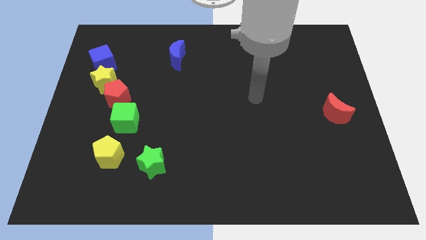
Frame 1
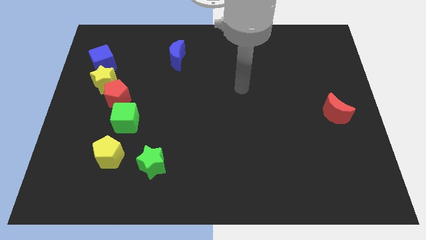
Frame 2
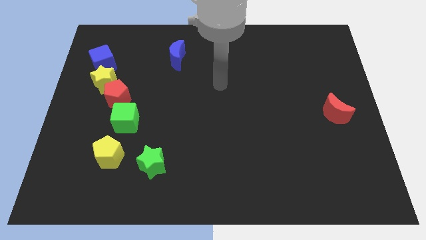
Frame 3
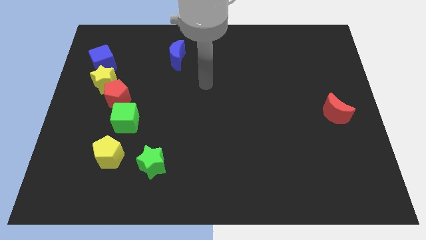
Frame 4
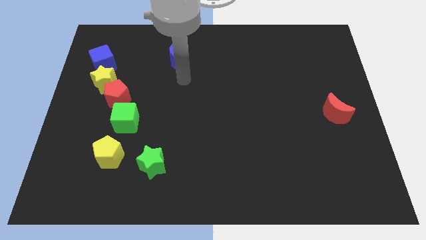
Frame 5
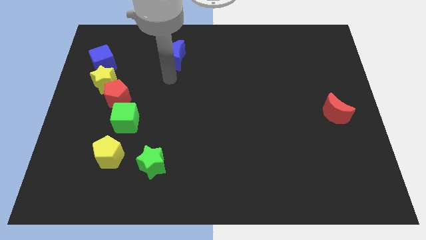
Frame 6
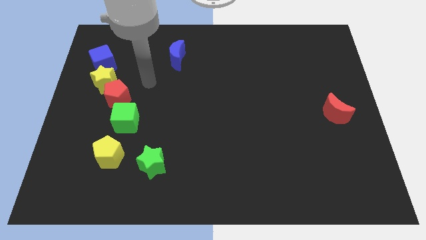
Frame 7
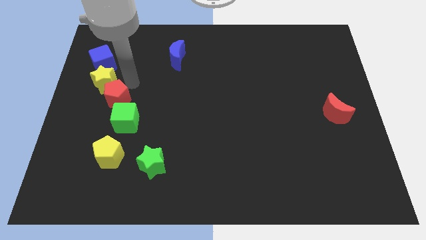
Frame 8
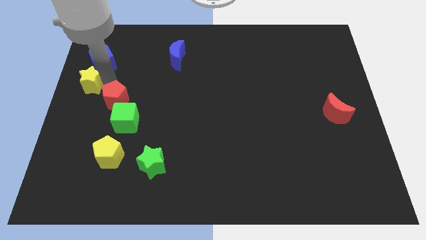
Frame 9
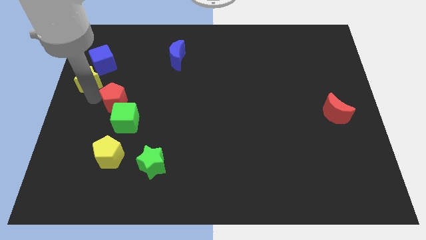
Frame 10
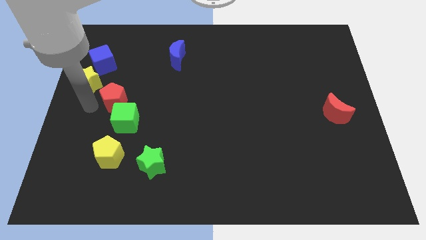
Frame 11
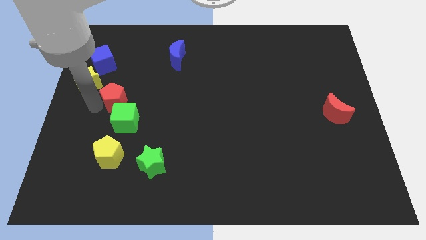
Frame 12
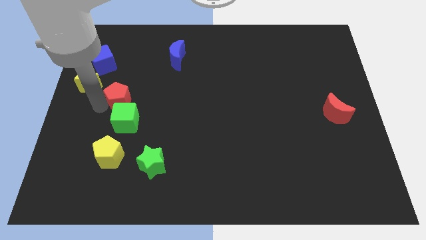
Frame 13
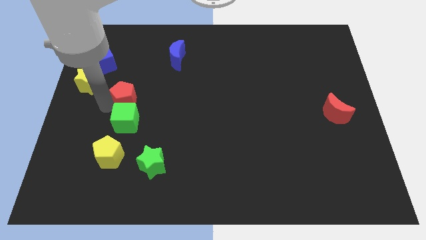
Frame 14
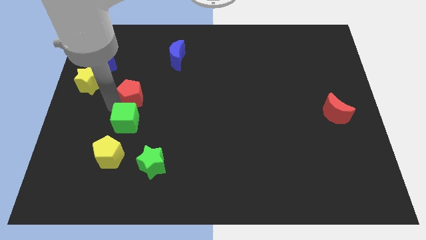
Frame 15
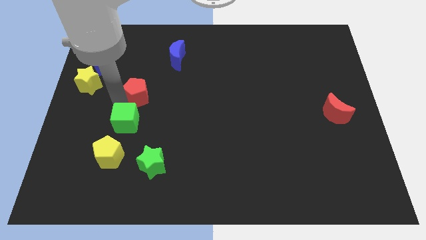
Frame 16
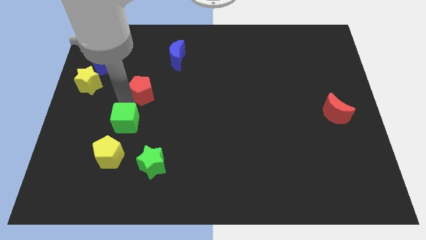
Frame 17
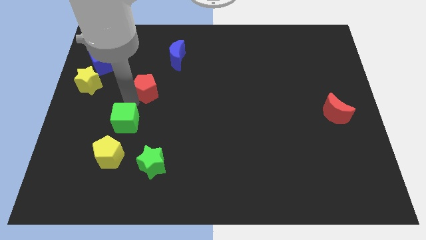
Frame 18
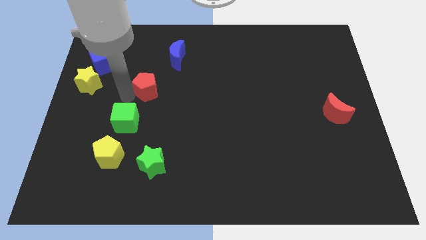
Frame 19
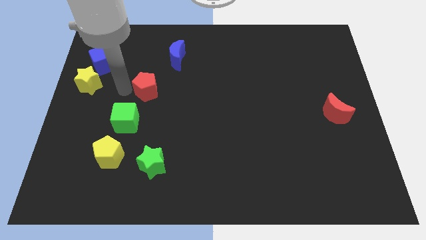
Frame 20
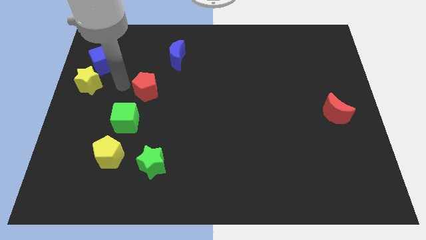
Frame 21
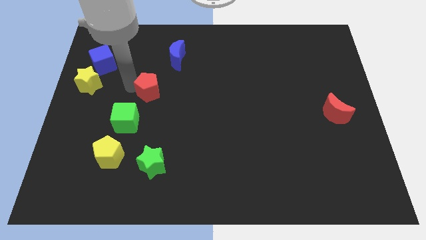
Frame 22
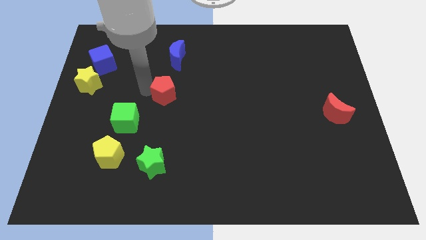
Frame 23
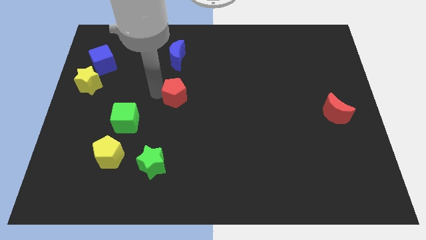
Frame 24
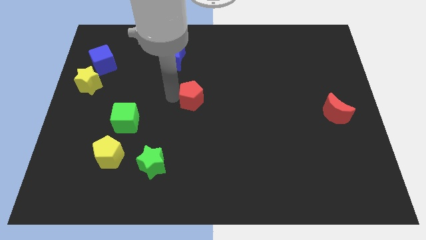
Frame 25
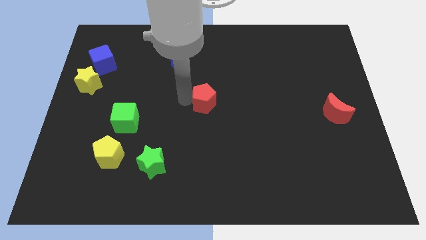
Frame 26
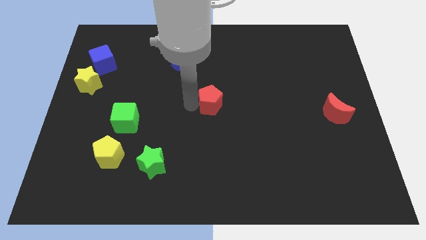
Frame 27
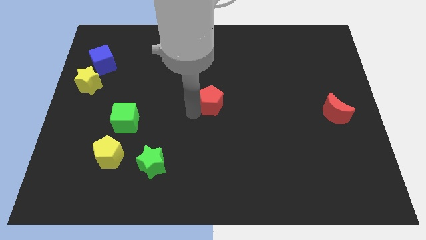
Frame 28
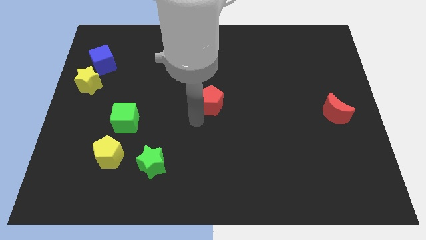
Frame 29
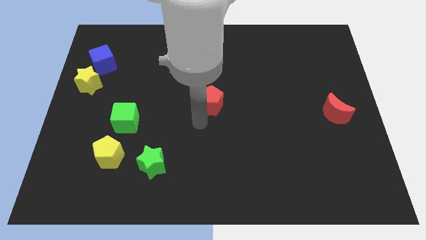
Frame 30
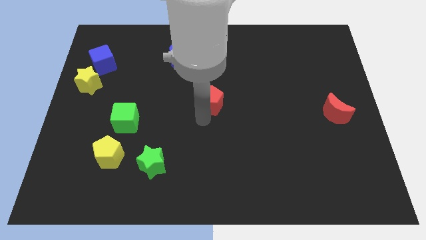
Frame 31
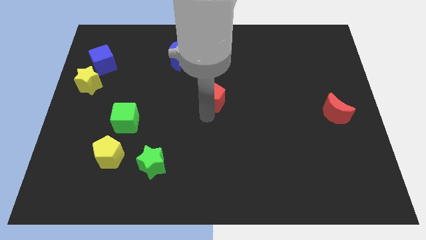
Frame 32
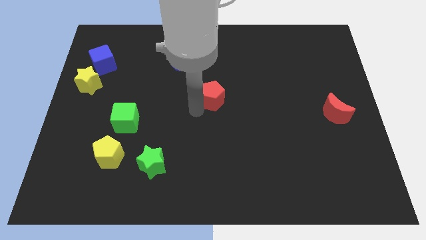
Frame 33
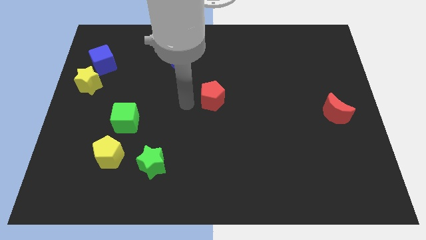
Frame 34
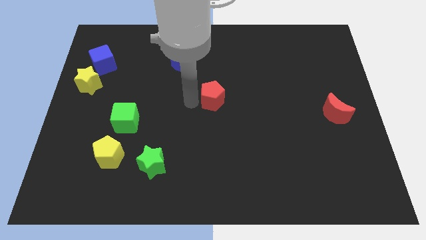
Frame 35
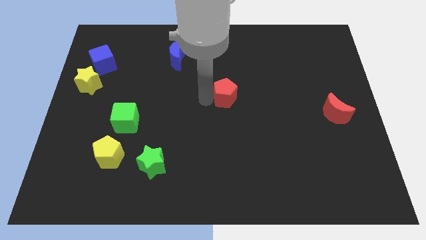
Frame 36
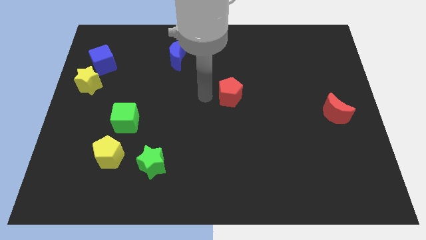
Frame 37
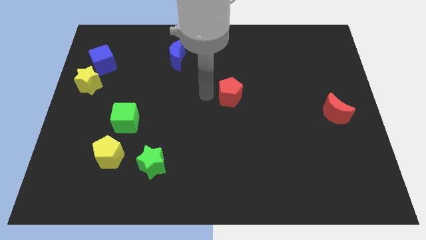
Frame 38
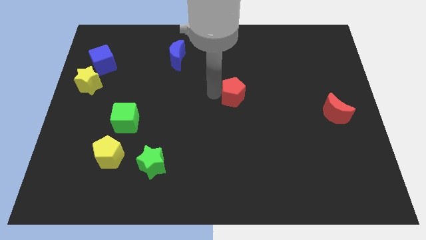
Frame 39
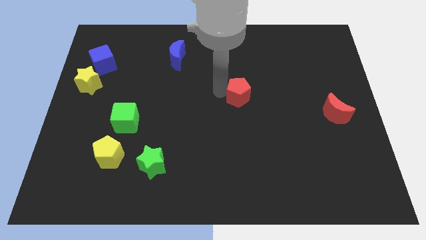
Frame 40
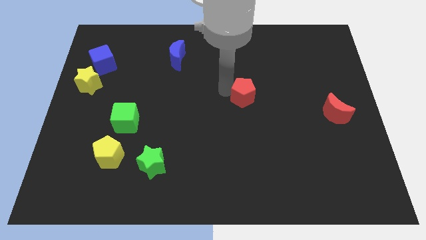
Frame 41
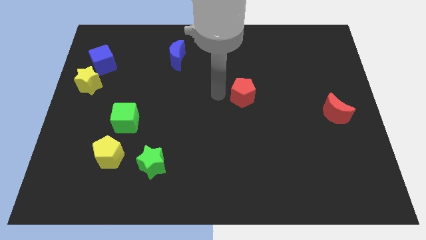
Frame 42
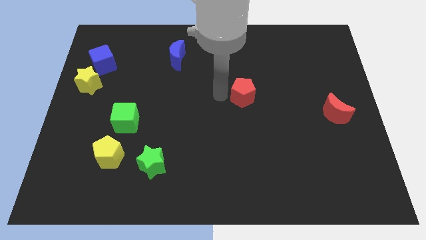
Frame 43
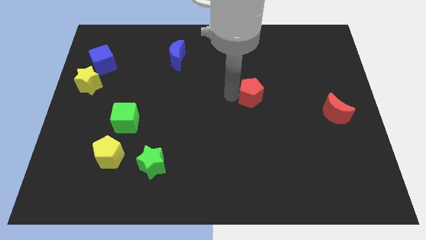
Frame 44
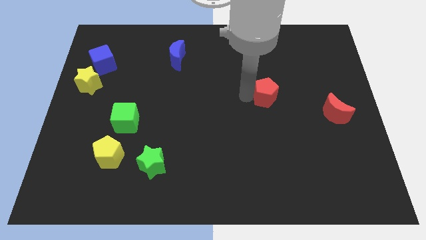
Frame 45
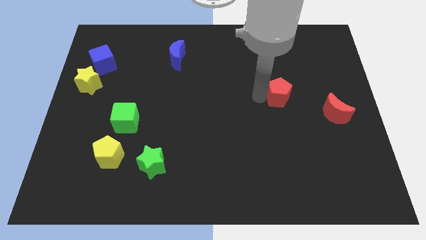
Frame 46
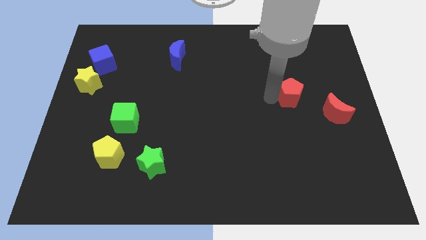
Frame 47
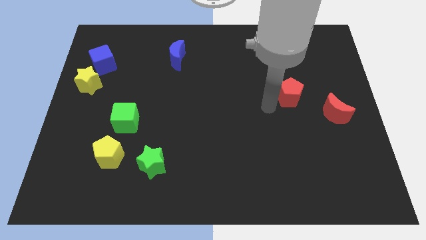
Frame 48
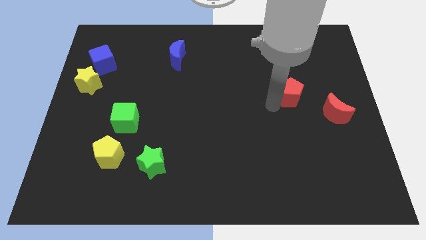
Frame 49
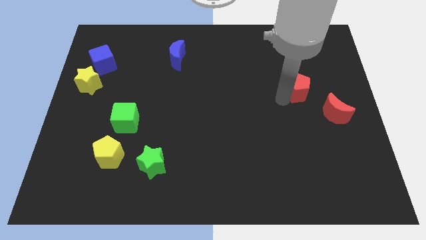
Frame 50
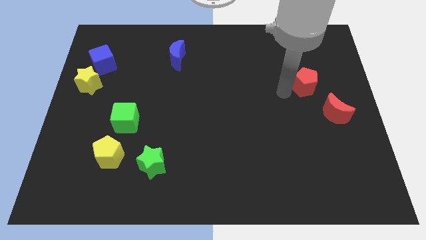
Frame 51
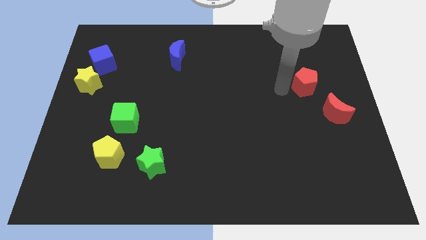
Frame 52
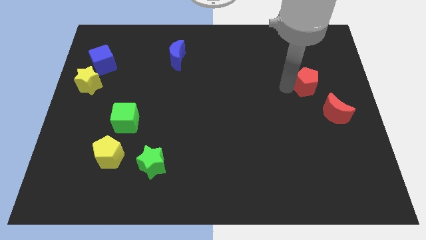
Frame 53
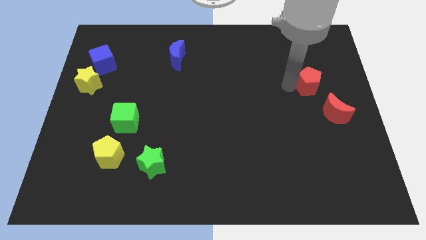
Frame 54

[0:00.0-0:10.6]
slide the red pentagon to the top of the red moon
